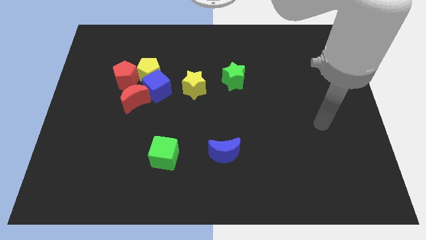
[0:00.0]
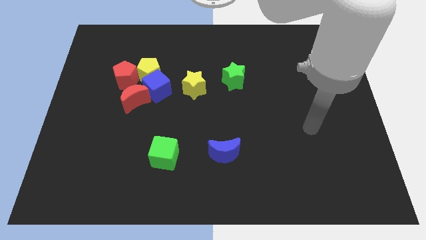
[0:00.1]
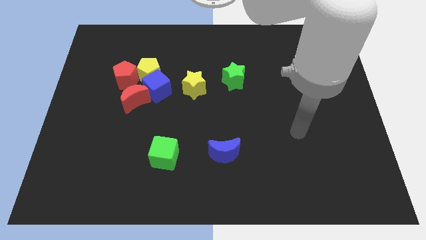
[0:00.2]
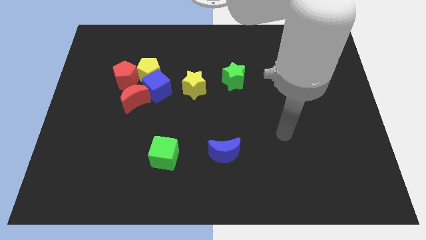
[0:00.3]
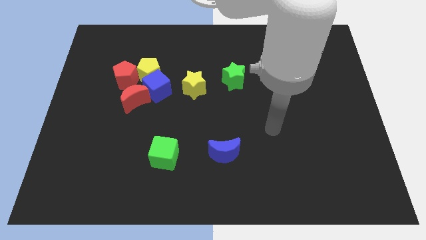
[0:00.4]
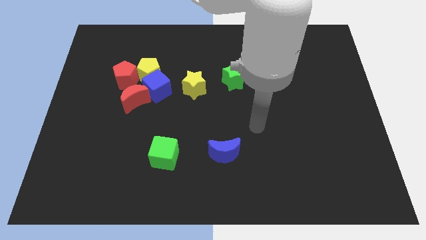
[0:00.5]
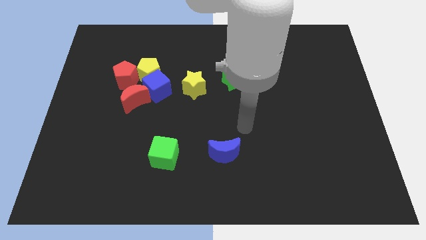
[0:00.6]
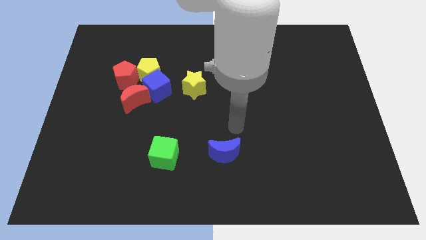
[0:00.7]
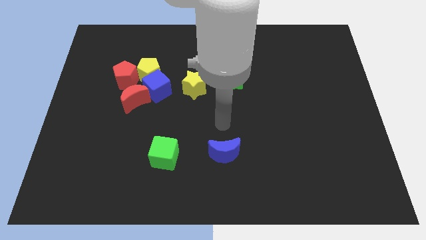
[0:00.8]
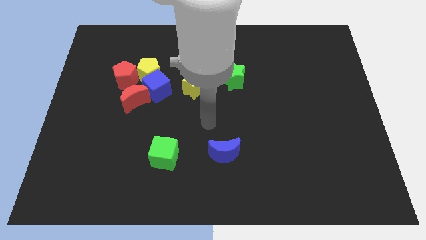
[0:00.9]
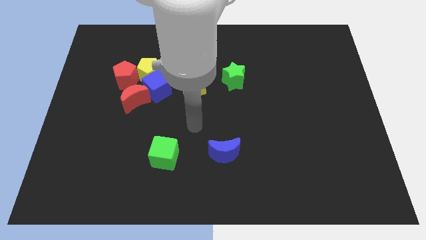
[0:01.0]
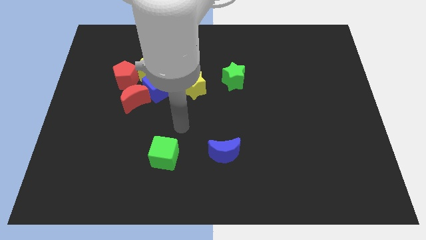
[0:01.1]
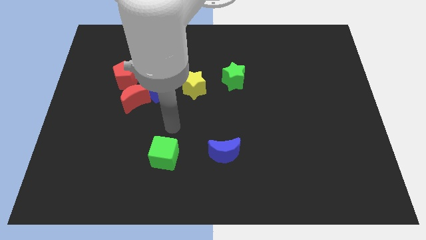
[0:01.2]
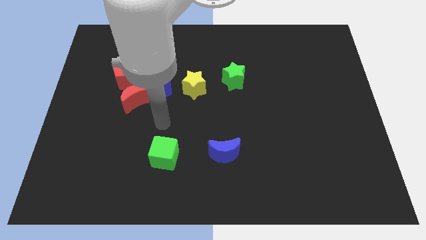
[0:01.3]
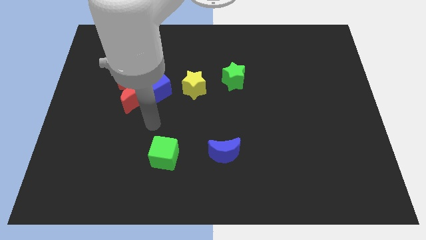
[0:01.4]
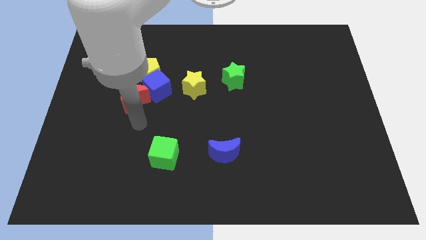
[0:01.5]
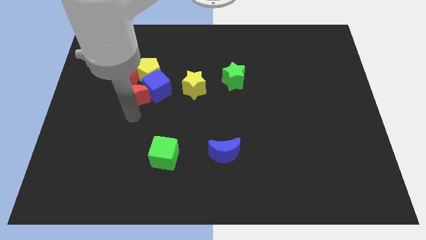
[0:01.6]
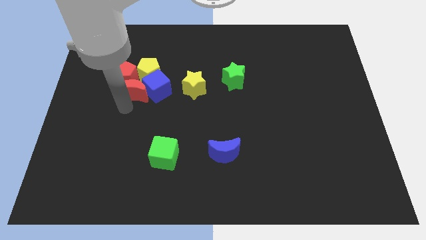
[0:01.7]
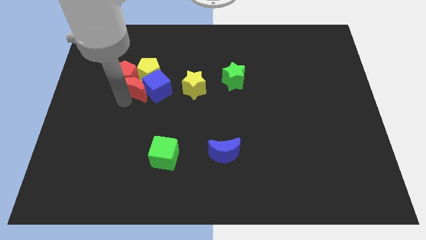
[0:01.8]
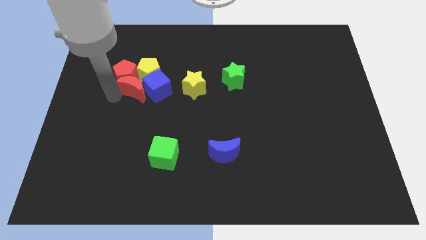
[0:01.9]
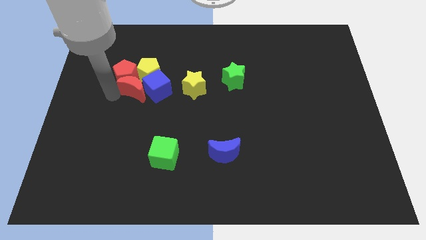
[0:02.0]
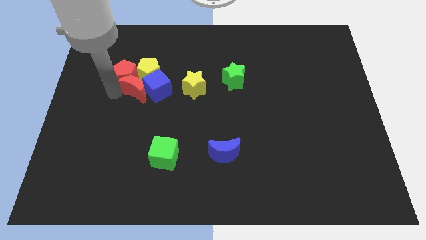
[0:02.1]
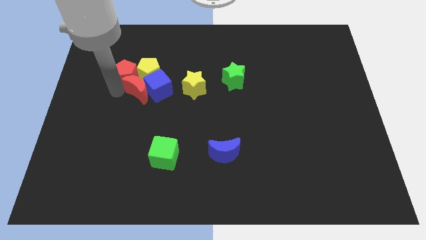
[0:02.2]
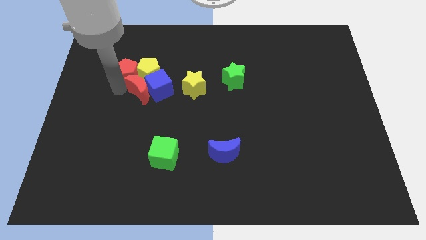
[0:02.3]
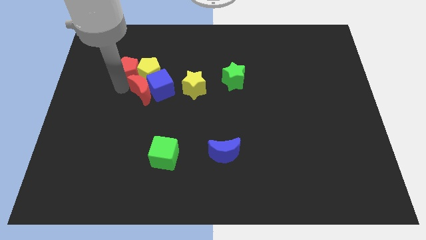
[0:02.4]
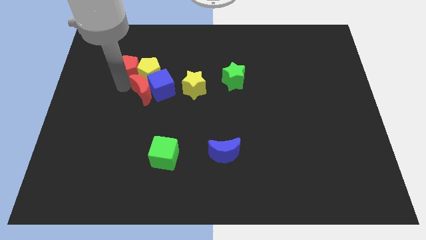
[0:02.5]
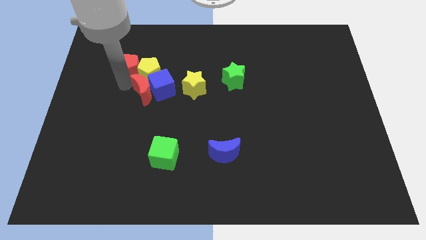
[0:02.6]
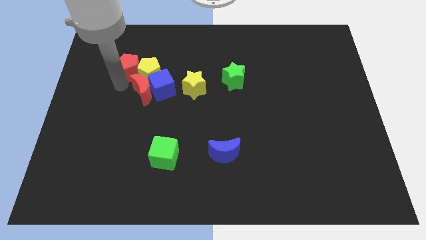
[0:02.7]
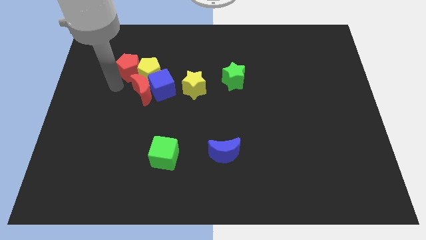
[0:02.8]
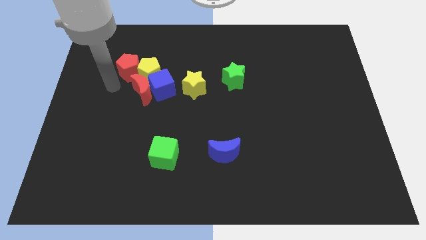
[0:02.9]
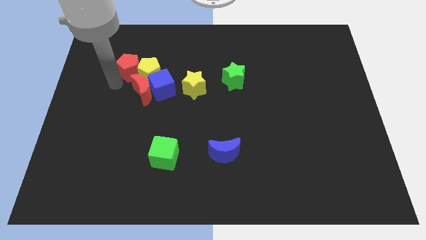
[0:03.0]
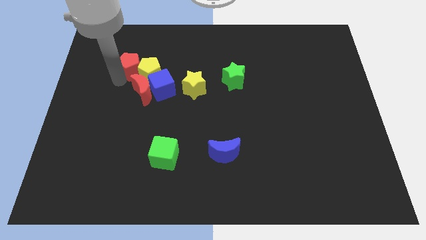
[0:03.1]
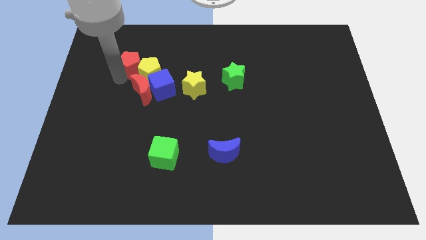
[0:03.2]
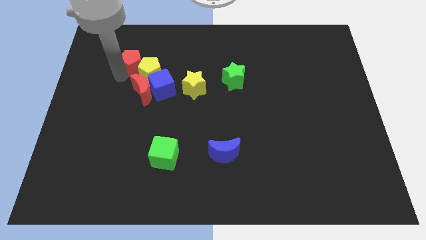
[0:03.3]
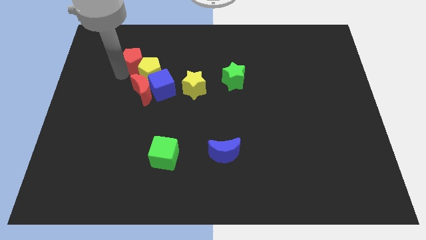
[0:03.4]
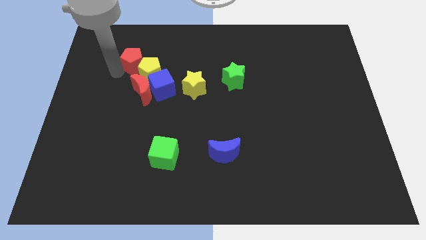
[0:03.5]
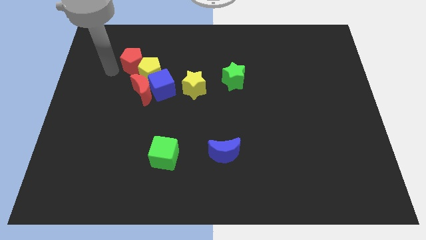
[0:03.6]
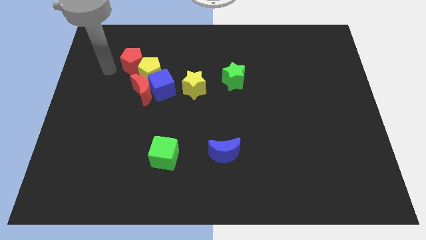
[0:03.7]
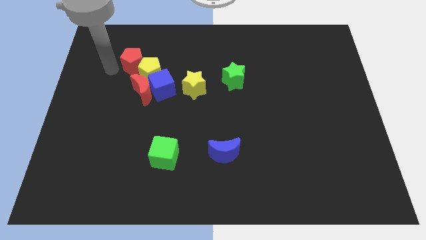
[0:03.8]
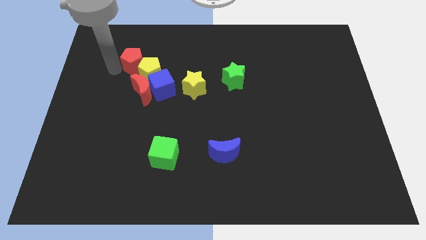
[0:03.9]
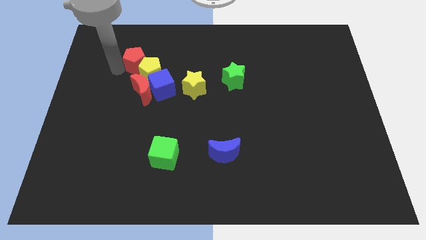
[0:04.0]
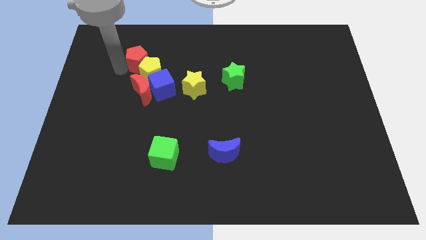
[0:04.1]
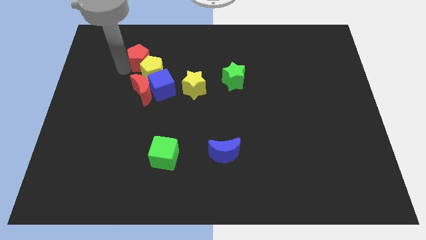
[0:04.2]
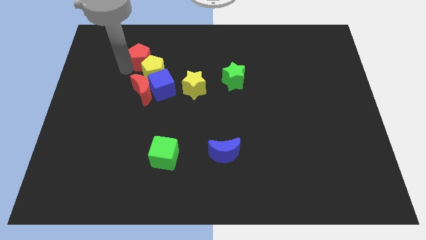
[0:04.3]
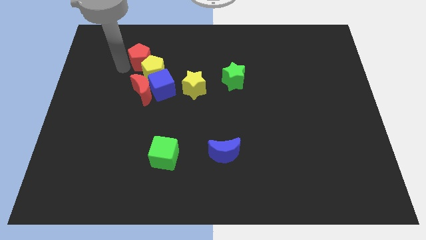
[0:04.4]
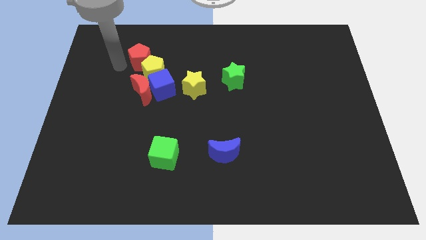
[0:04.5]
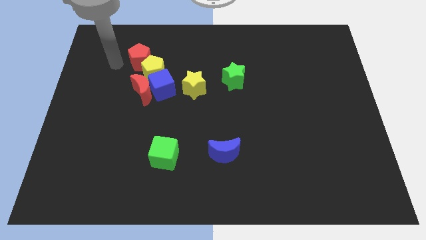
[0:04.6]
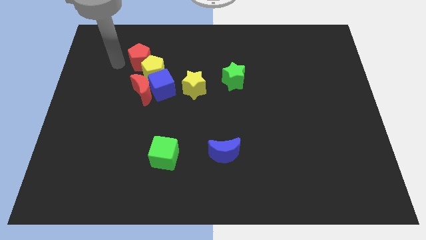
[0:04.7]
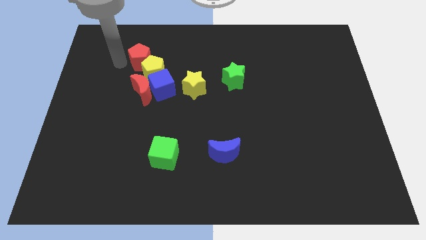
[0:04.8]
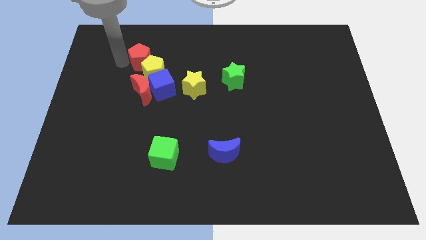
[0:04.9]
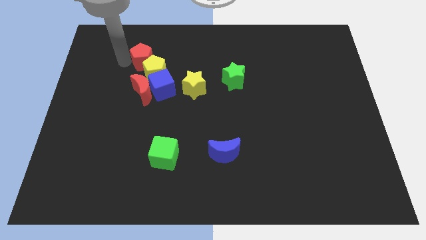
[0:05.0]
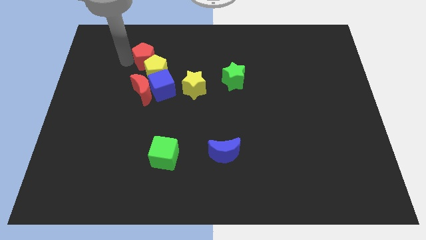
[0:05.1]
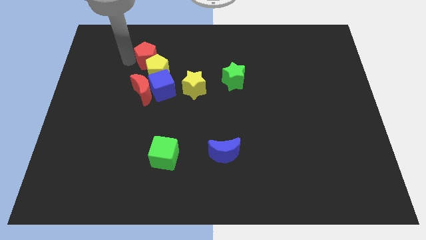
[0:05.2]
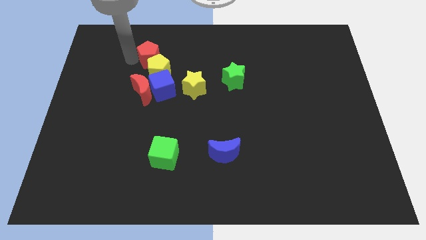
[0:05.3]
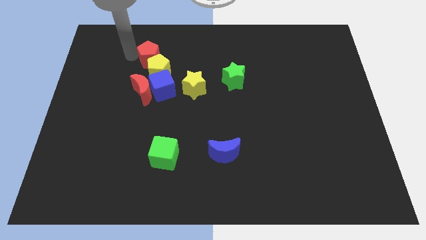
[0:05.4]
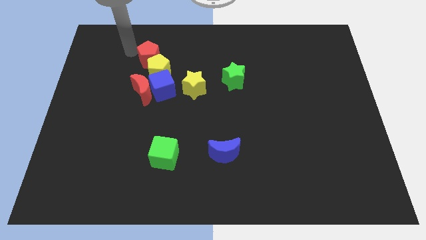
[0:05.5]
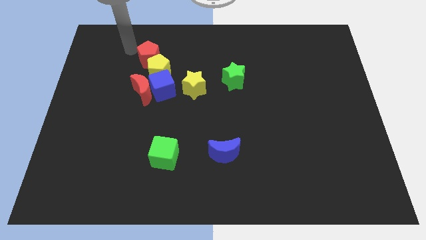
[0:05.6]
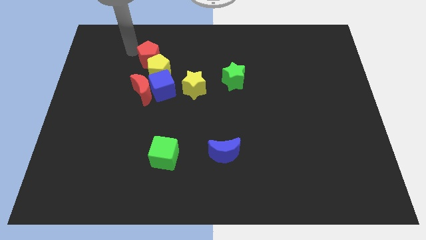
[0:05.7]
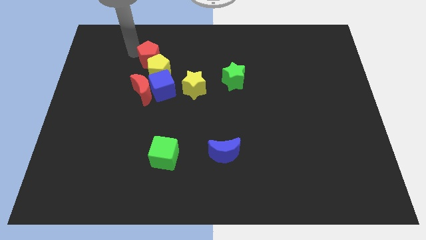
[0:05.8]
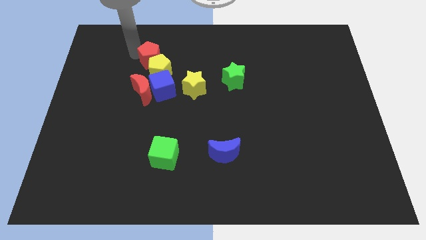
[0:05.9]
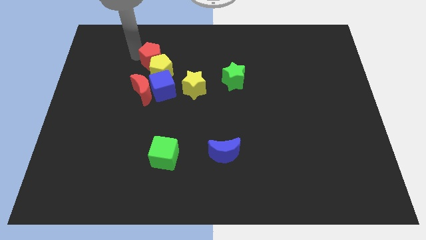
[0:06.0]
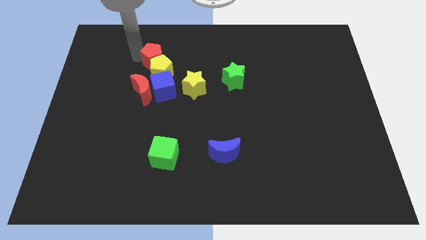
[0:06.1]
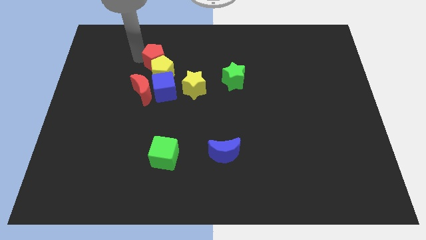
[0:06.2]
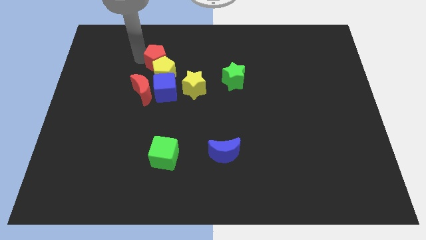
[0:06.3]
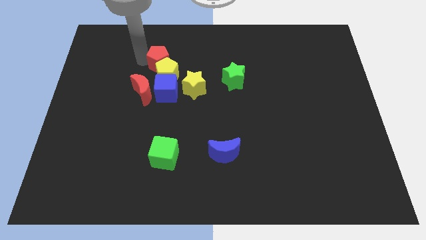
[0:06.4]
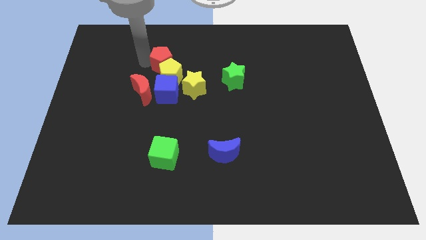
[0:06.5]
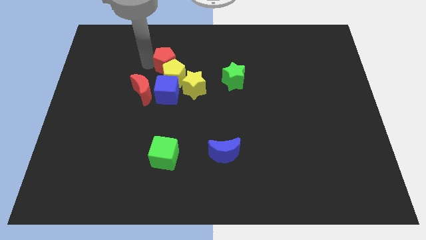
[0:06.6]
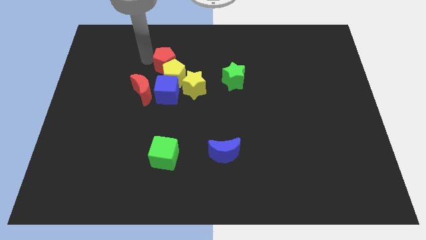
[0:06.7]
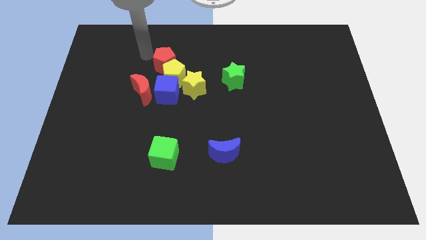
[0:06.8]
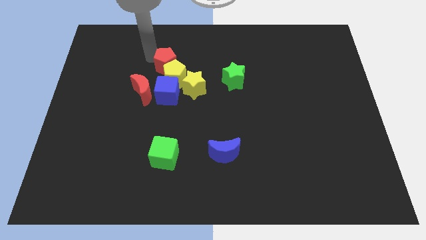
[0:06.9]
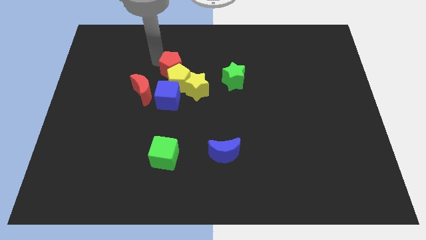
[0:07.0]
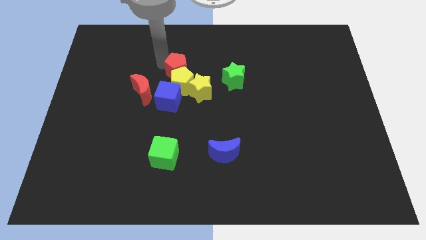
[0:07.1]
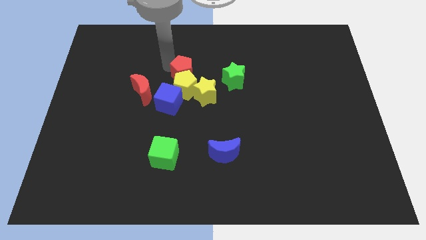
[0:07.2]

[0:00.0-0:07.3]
move the red pentagon to the top right of the blue cube
